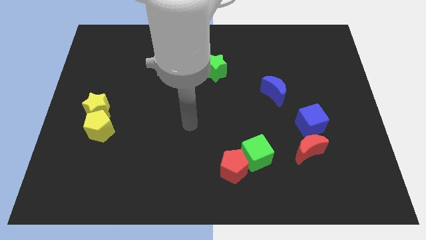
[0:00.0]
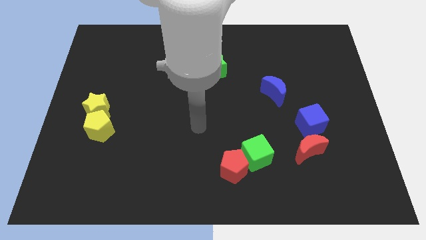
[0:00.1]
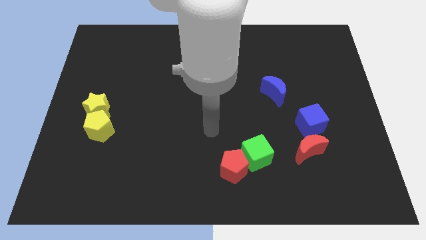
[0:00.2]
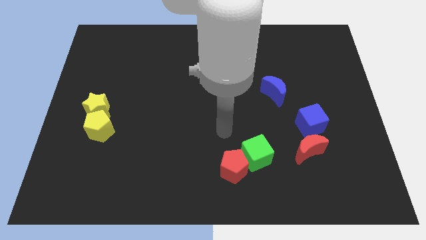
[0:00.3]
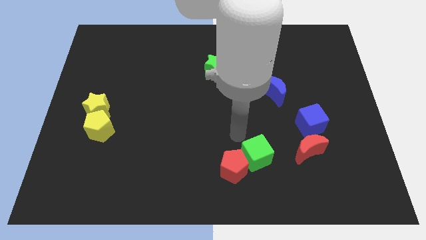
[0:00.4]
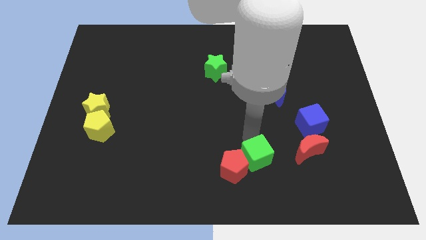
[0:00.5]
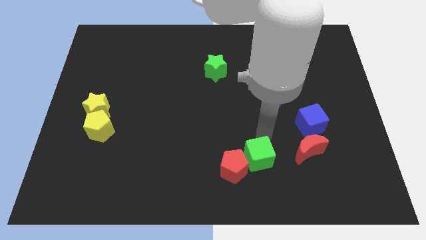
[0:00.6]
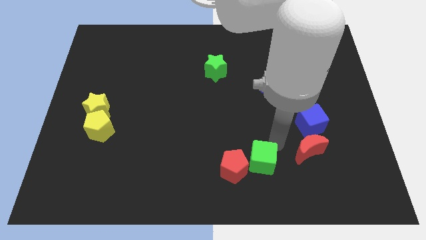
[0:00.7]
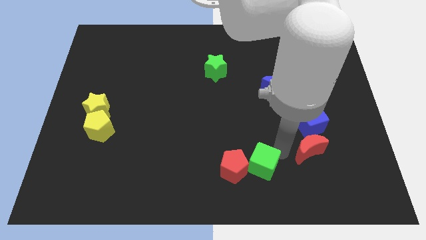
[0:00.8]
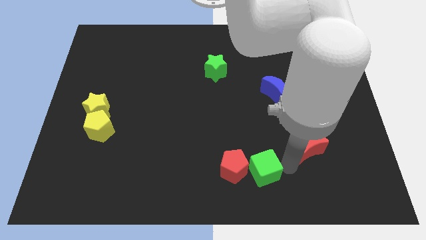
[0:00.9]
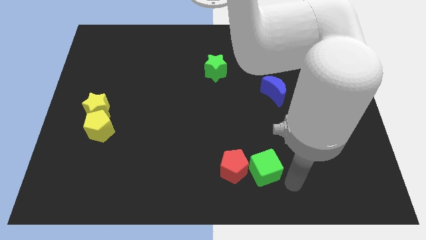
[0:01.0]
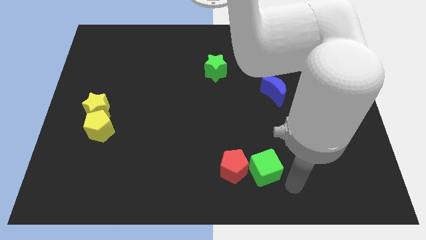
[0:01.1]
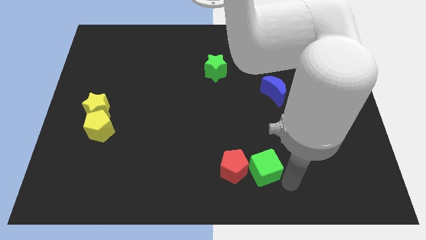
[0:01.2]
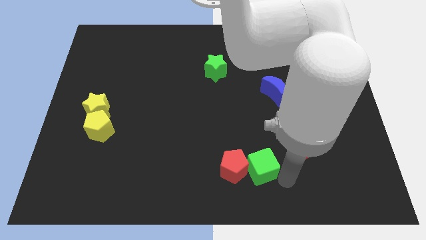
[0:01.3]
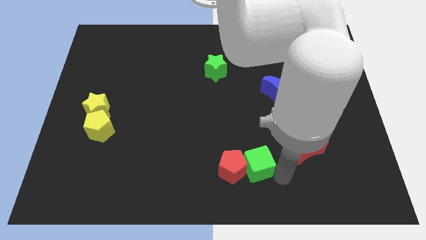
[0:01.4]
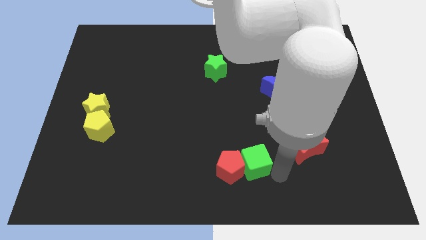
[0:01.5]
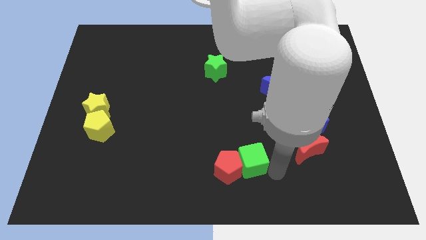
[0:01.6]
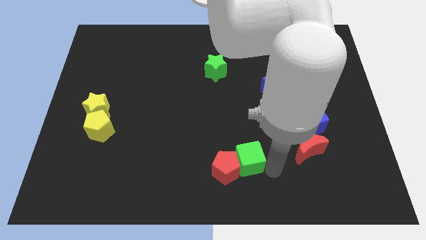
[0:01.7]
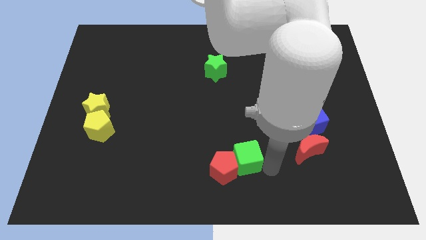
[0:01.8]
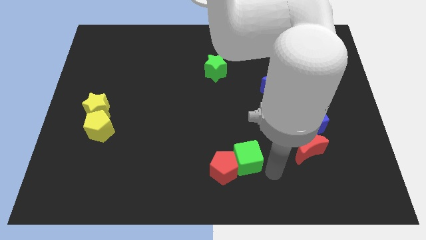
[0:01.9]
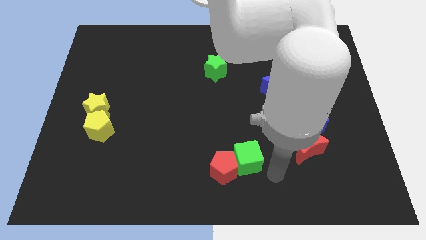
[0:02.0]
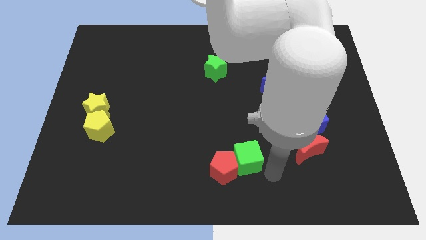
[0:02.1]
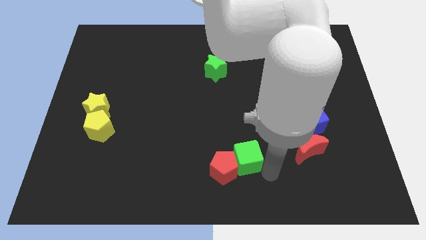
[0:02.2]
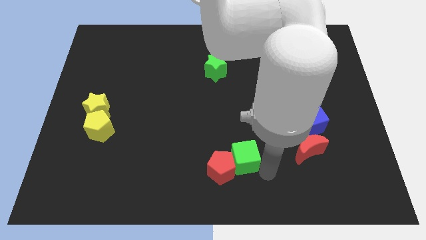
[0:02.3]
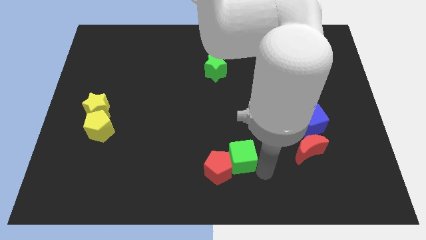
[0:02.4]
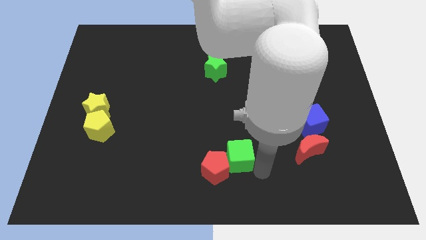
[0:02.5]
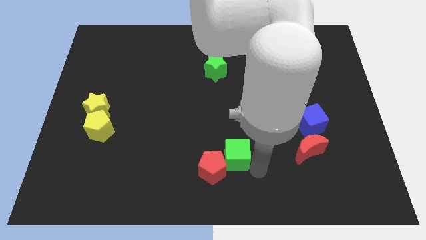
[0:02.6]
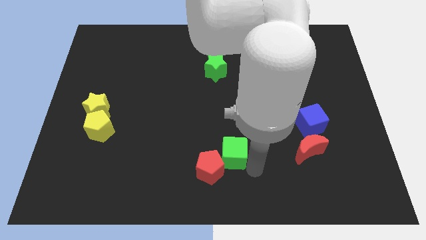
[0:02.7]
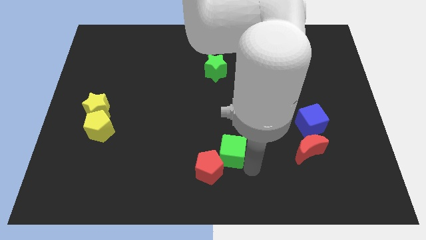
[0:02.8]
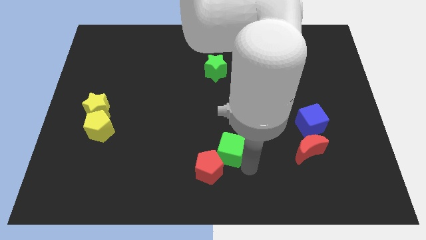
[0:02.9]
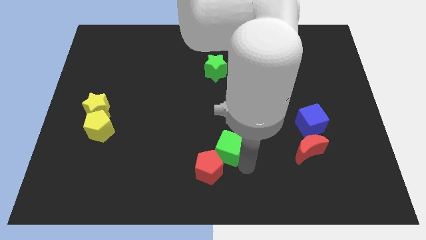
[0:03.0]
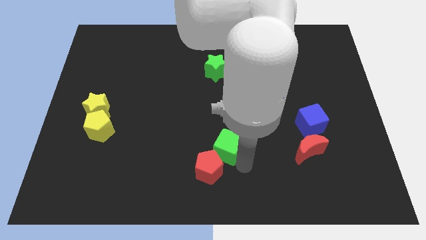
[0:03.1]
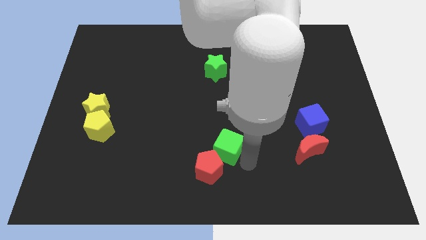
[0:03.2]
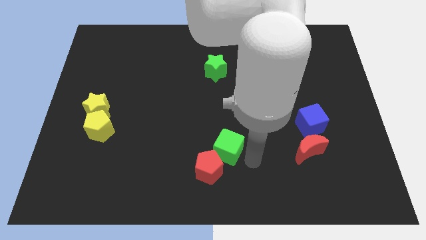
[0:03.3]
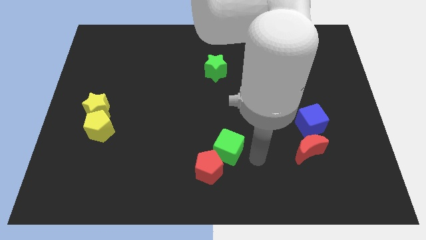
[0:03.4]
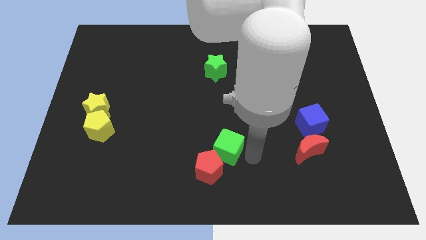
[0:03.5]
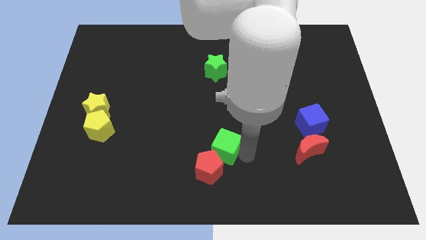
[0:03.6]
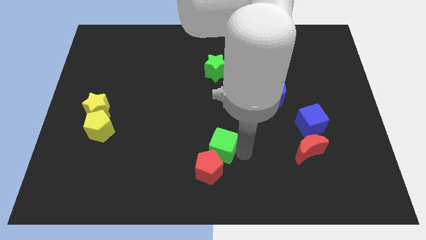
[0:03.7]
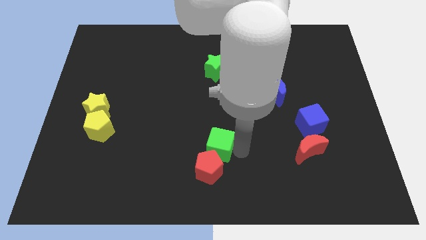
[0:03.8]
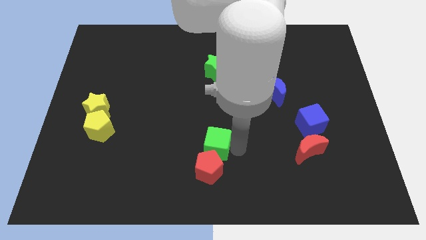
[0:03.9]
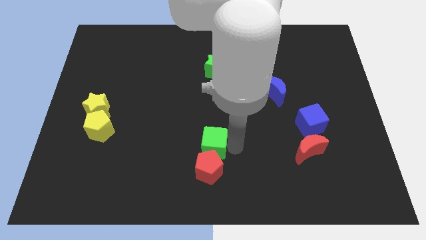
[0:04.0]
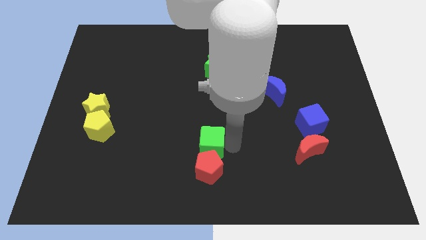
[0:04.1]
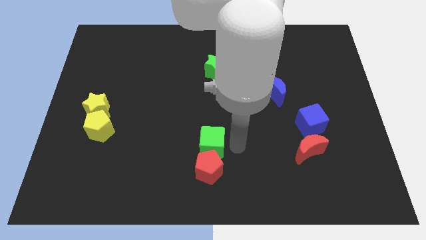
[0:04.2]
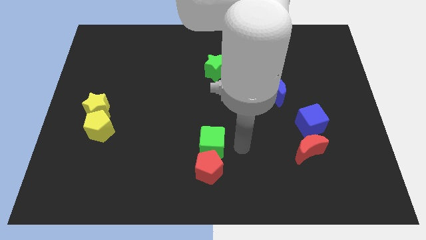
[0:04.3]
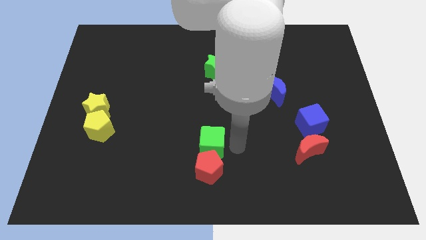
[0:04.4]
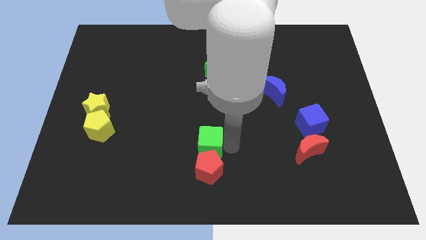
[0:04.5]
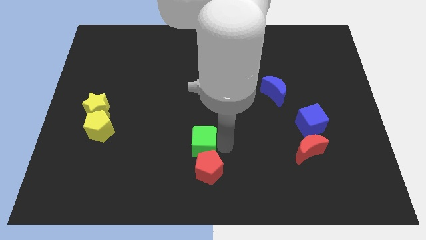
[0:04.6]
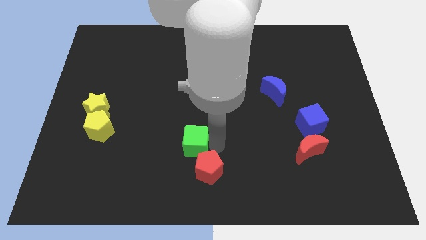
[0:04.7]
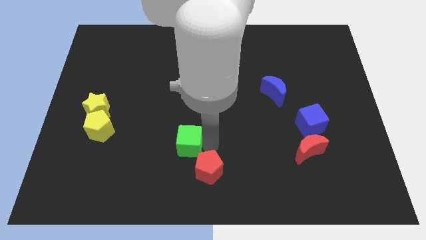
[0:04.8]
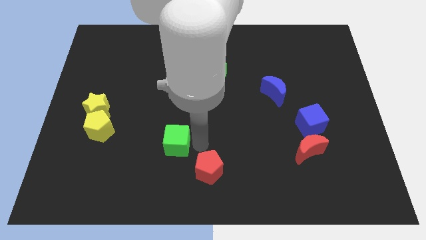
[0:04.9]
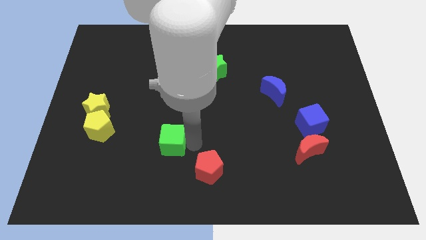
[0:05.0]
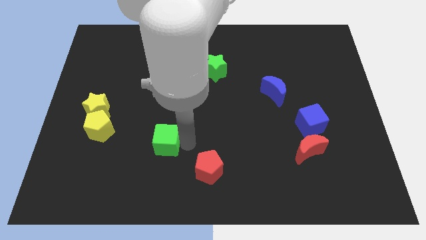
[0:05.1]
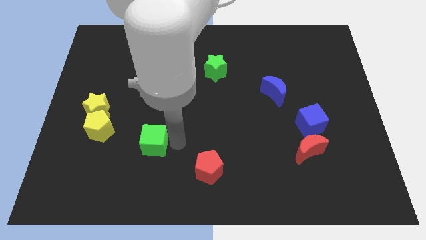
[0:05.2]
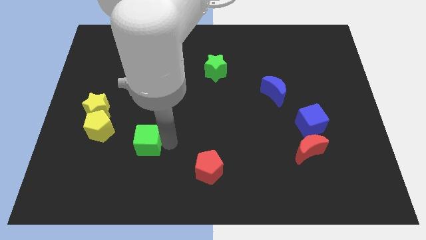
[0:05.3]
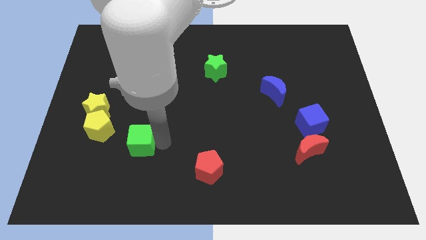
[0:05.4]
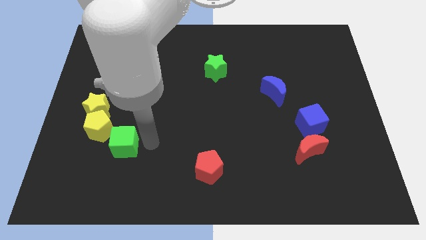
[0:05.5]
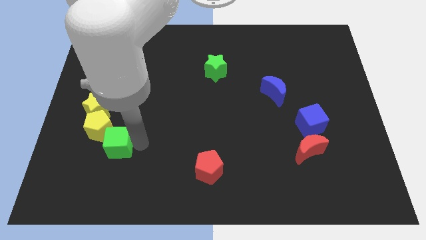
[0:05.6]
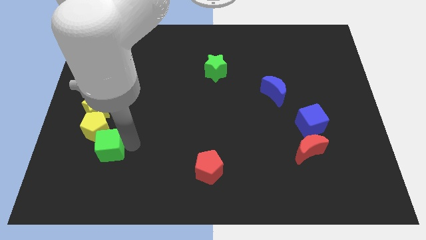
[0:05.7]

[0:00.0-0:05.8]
slide the green cube below the yellow star

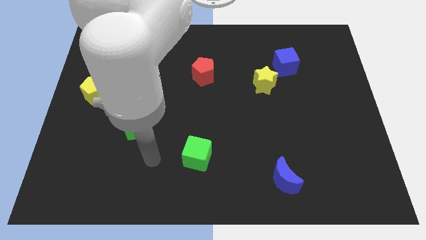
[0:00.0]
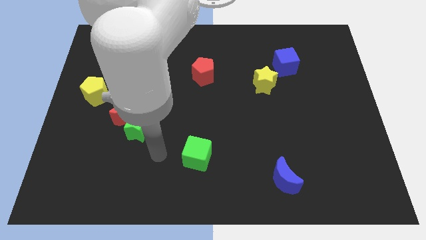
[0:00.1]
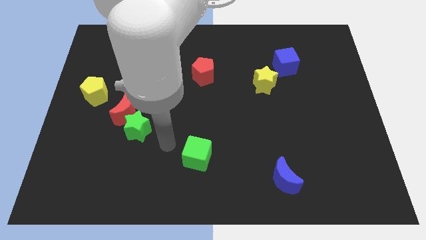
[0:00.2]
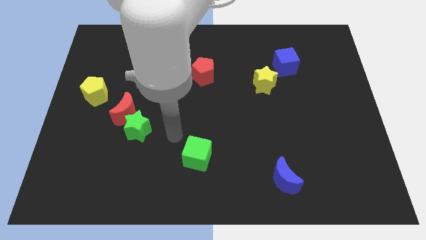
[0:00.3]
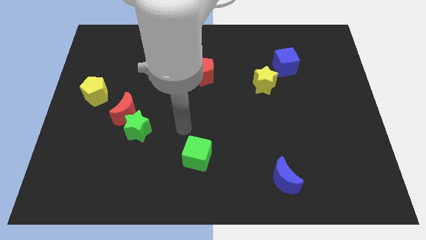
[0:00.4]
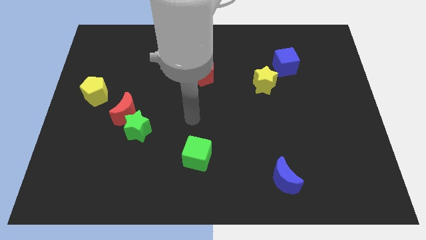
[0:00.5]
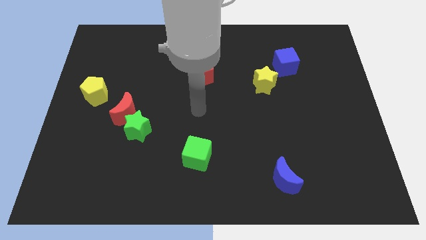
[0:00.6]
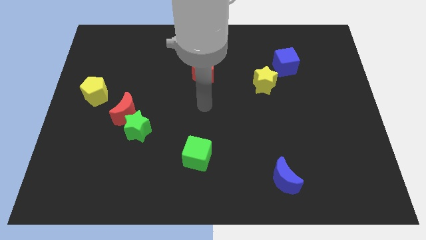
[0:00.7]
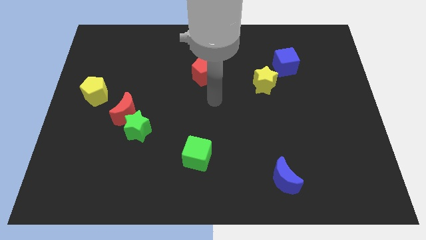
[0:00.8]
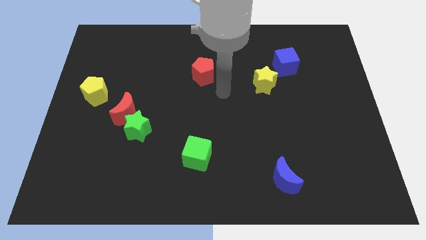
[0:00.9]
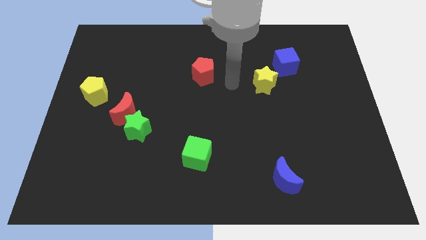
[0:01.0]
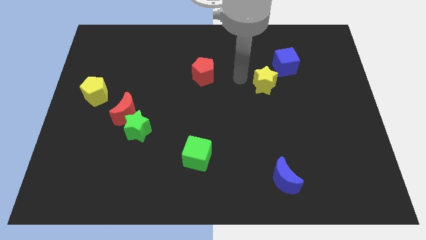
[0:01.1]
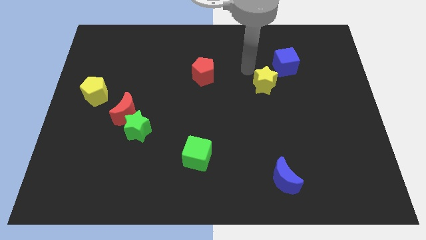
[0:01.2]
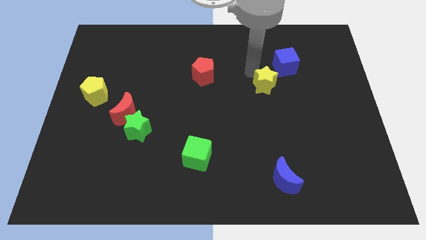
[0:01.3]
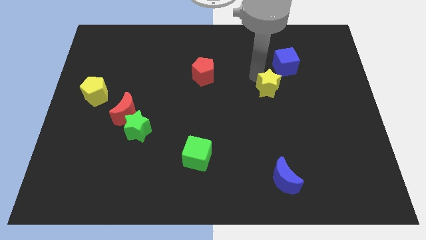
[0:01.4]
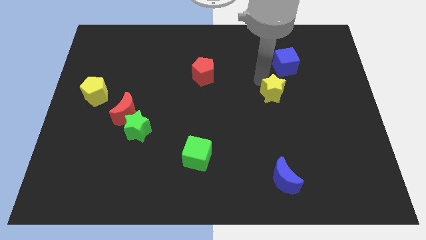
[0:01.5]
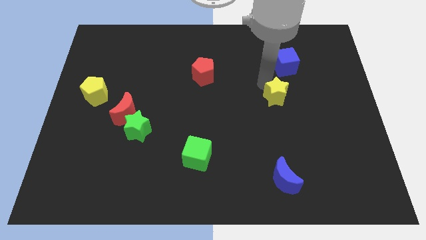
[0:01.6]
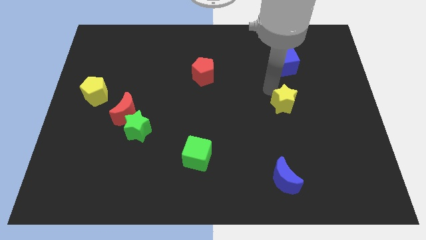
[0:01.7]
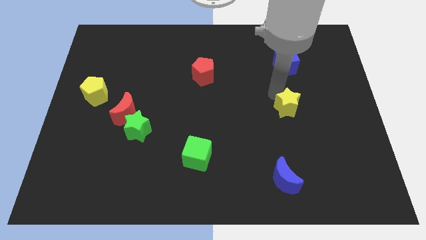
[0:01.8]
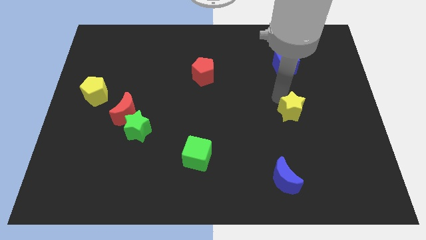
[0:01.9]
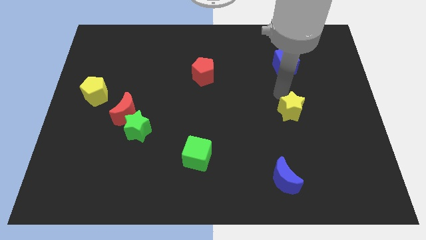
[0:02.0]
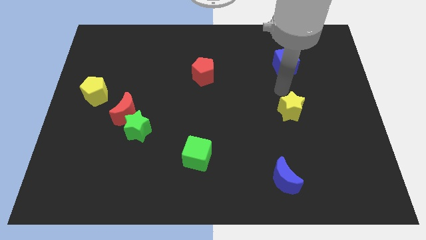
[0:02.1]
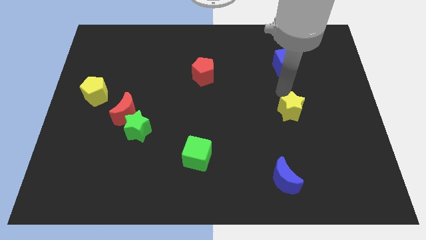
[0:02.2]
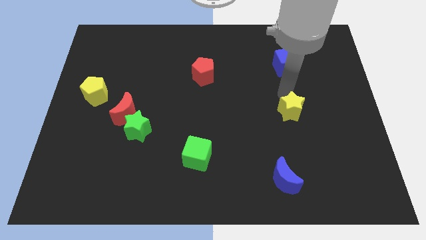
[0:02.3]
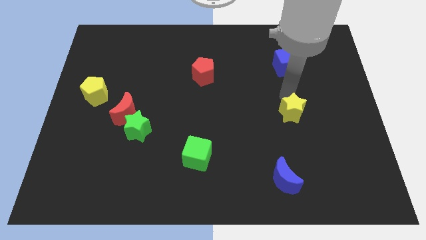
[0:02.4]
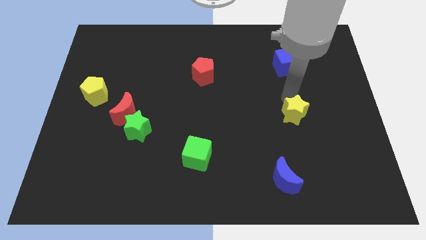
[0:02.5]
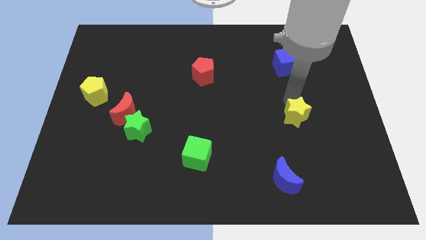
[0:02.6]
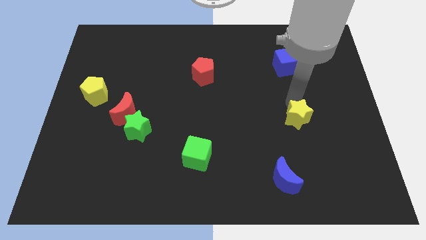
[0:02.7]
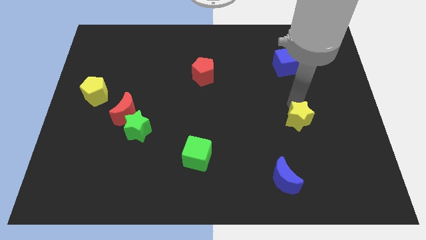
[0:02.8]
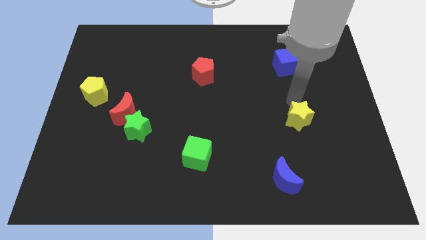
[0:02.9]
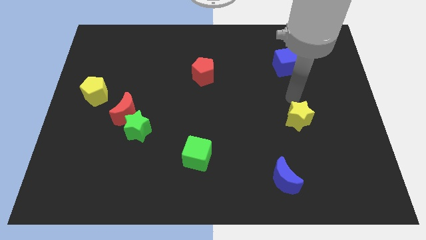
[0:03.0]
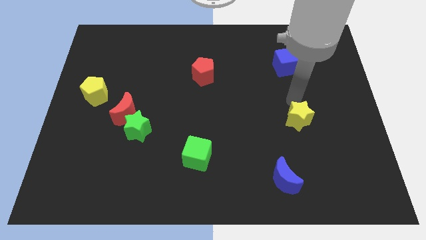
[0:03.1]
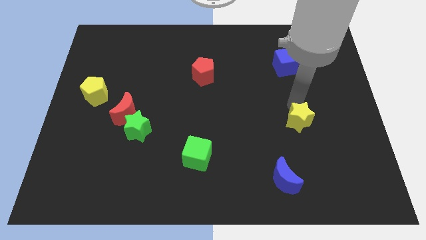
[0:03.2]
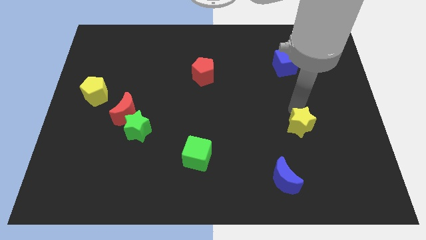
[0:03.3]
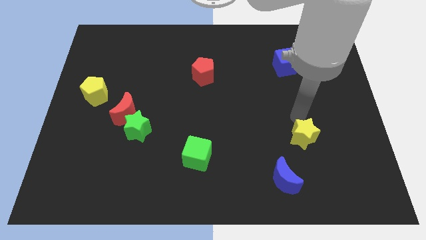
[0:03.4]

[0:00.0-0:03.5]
slide the yellow star to the top right side of the blue moon
